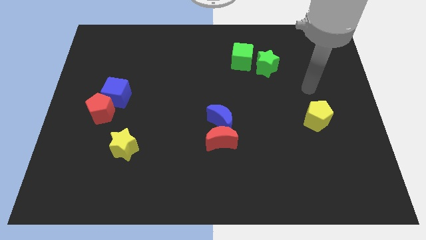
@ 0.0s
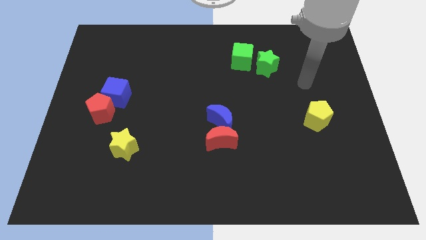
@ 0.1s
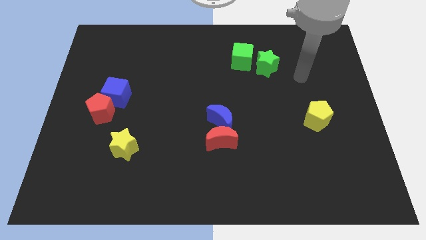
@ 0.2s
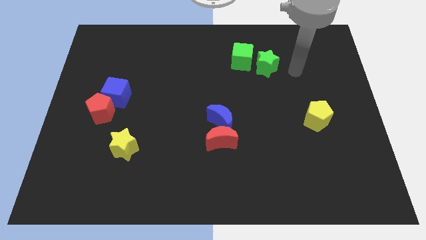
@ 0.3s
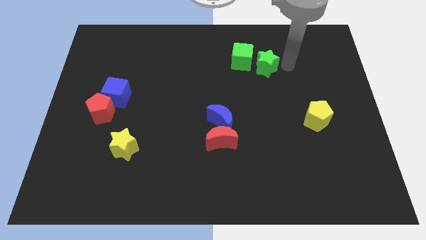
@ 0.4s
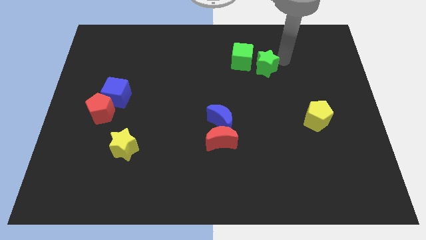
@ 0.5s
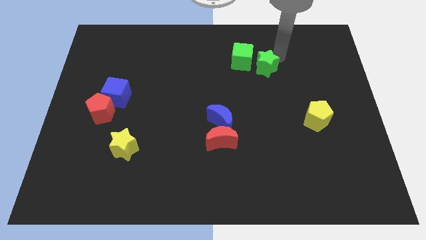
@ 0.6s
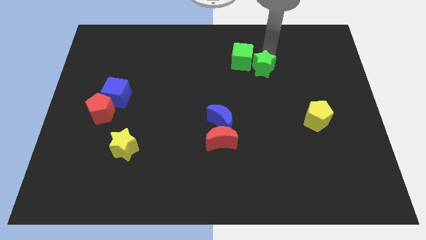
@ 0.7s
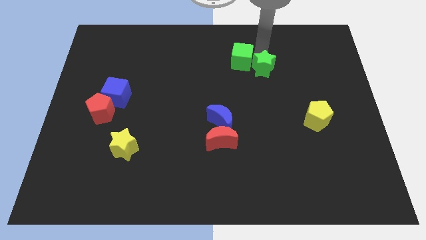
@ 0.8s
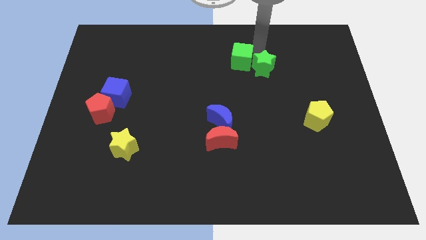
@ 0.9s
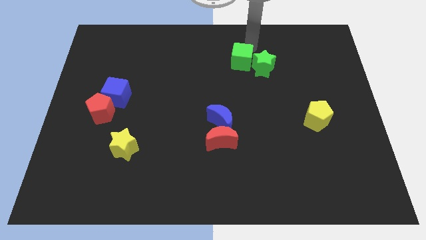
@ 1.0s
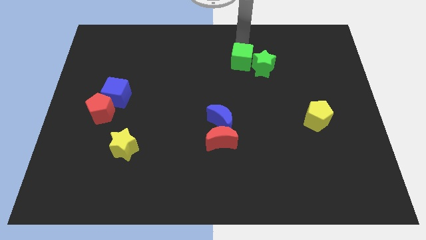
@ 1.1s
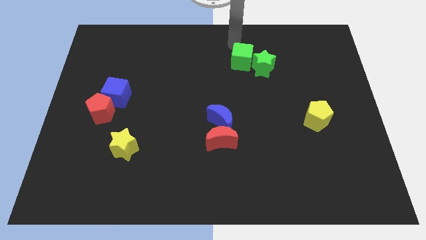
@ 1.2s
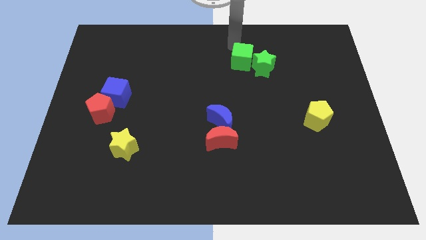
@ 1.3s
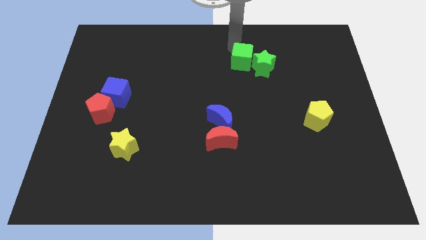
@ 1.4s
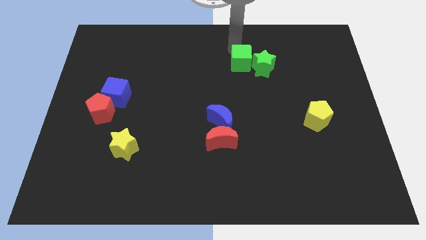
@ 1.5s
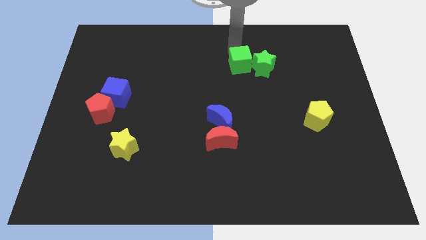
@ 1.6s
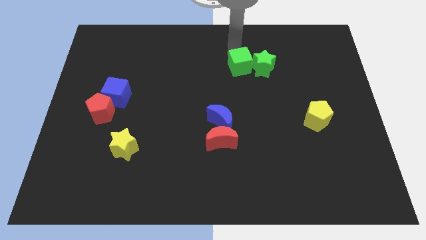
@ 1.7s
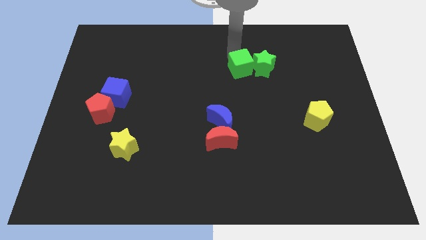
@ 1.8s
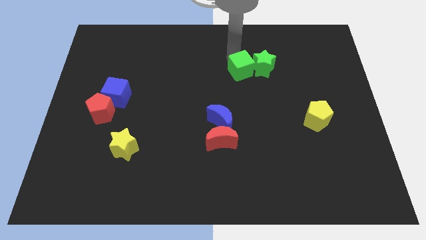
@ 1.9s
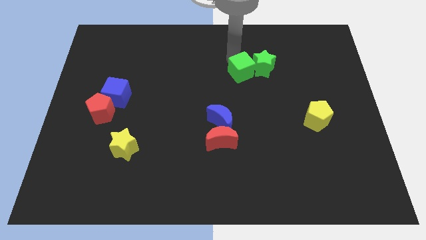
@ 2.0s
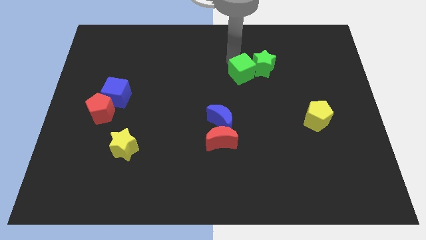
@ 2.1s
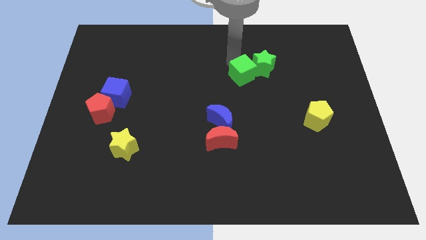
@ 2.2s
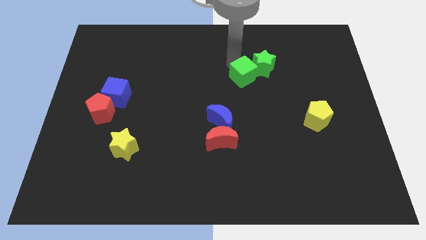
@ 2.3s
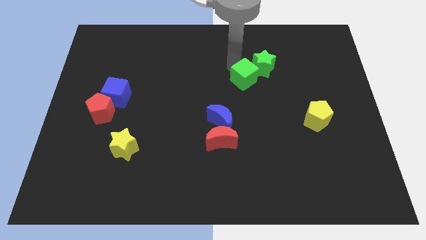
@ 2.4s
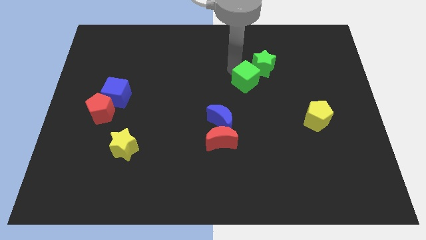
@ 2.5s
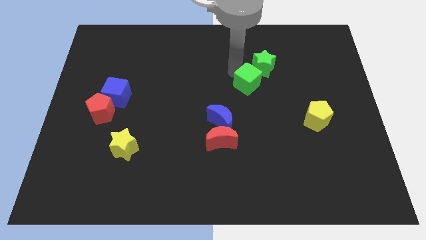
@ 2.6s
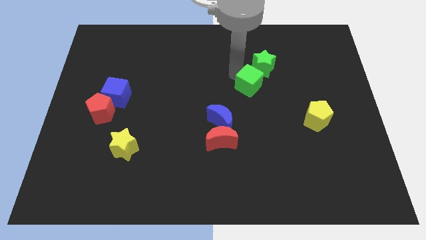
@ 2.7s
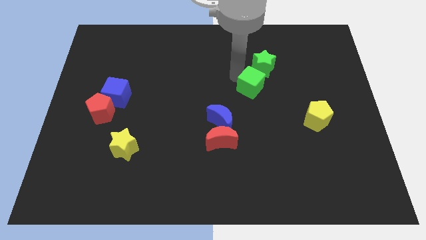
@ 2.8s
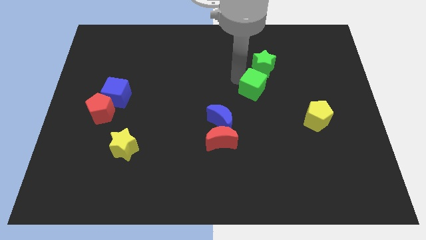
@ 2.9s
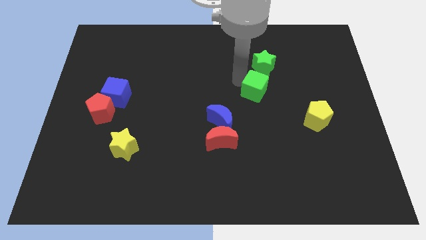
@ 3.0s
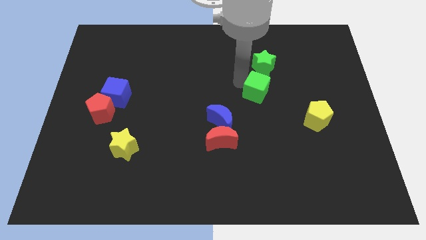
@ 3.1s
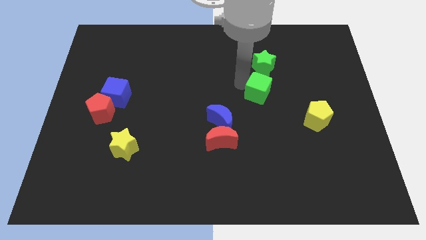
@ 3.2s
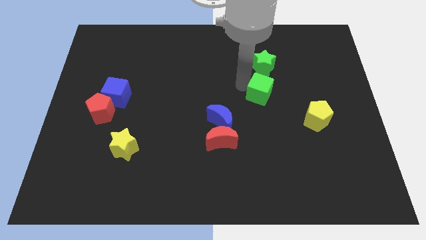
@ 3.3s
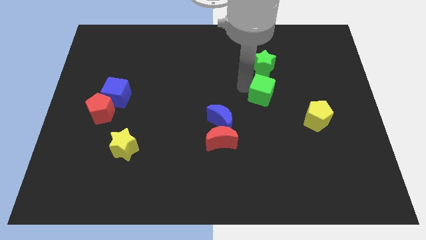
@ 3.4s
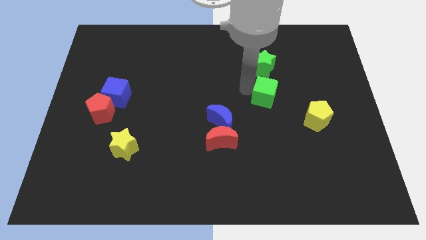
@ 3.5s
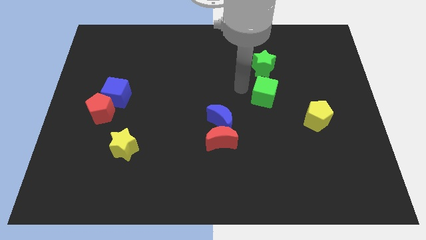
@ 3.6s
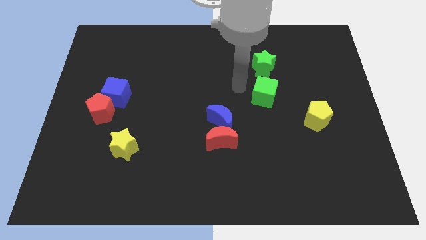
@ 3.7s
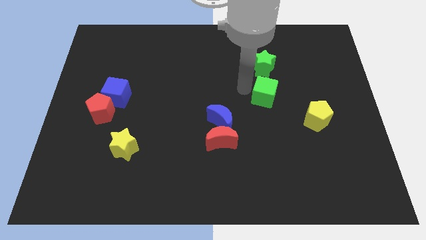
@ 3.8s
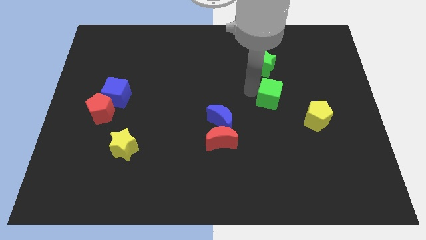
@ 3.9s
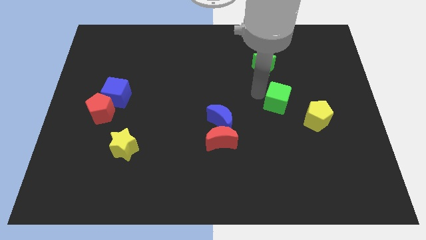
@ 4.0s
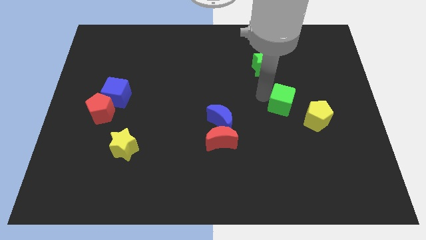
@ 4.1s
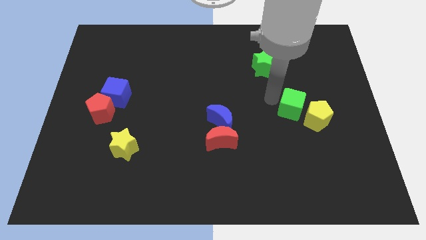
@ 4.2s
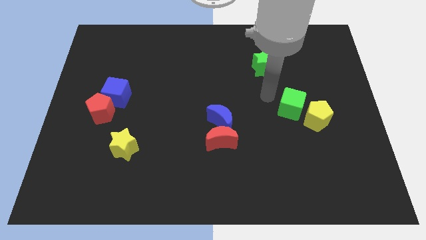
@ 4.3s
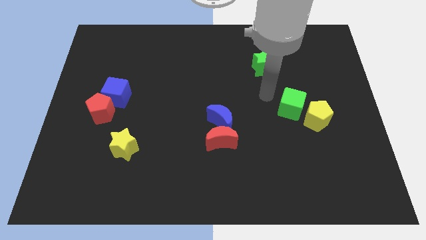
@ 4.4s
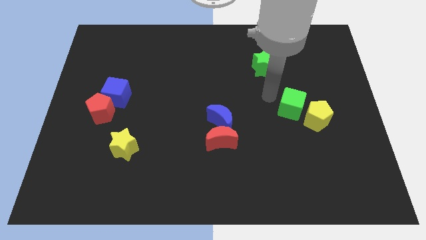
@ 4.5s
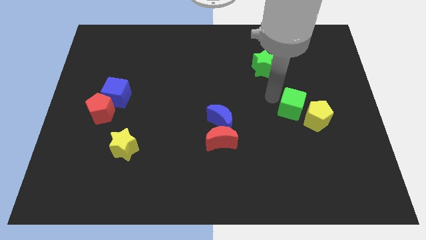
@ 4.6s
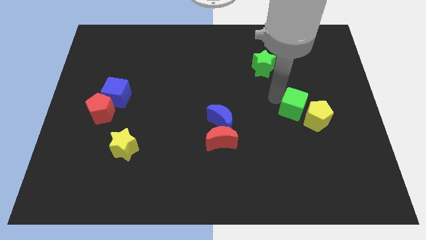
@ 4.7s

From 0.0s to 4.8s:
push the green cube towards the yellow pentagon

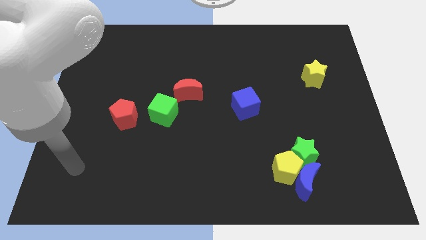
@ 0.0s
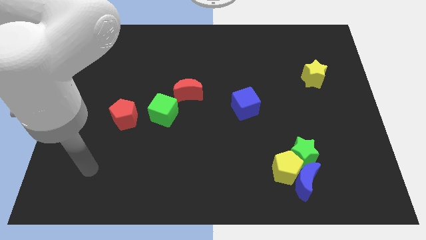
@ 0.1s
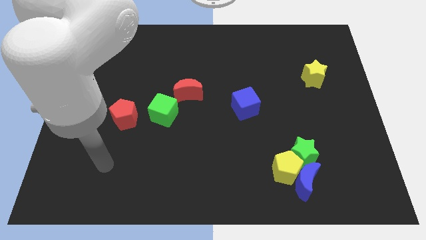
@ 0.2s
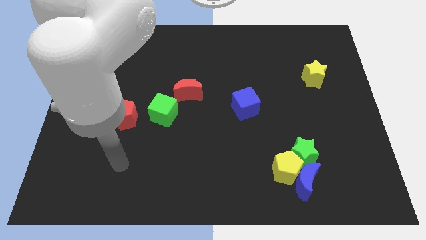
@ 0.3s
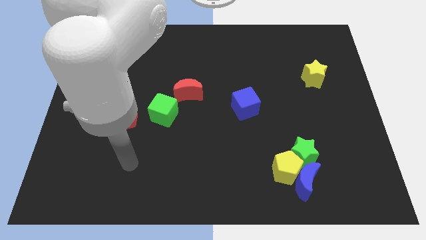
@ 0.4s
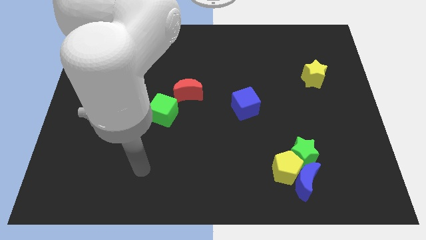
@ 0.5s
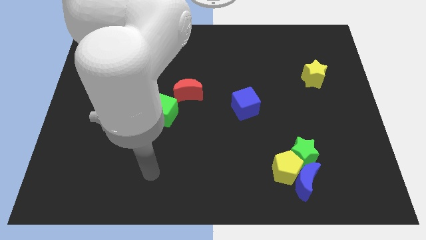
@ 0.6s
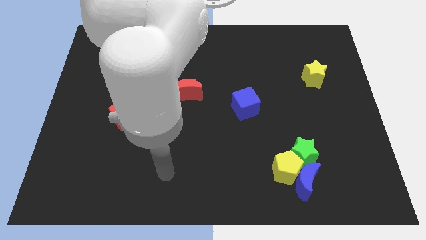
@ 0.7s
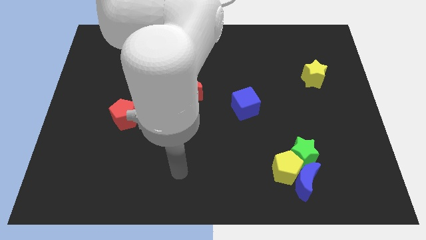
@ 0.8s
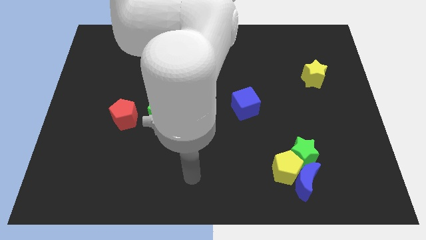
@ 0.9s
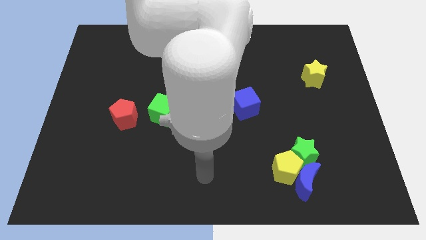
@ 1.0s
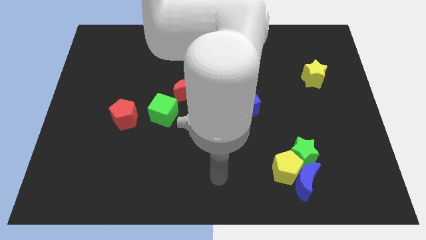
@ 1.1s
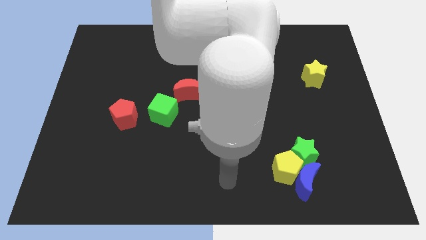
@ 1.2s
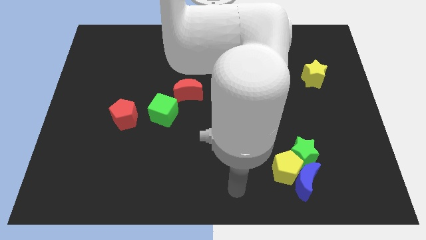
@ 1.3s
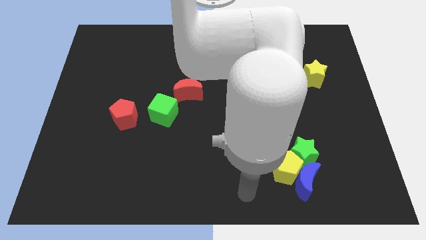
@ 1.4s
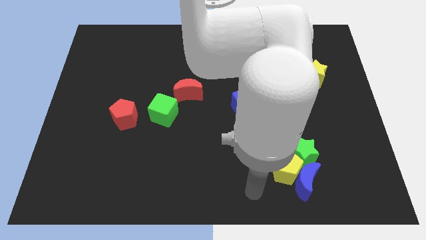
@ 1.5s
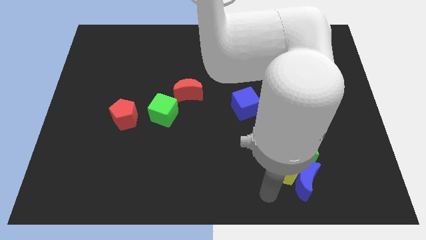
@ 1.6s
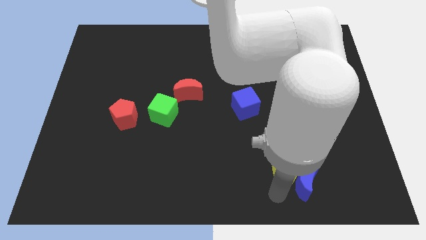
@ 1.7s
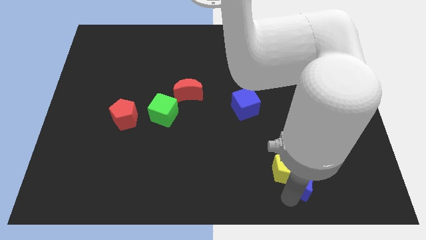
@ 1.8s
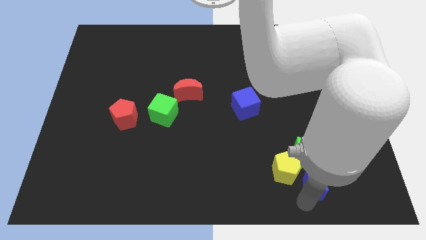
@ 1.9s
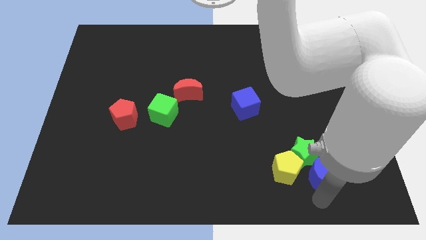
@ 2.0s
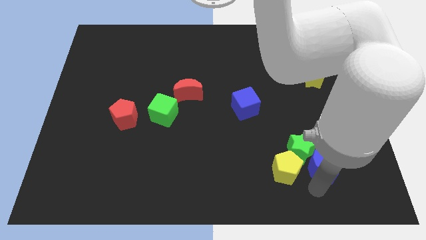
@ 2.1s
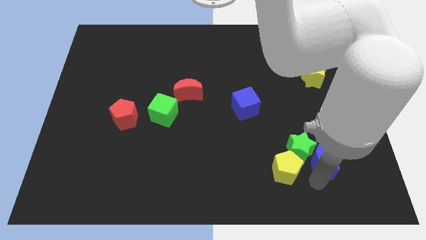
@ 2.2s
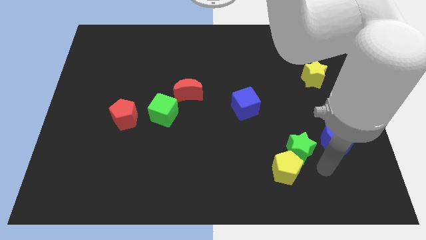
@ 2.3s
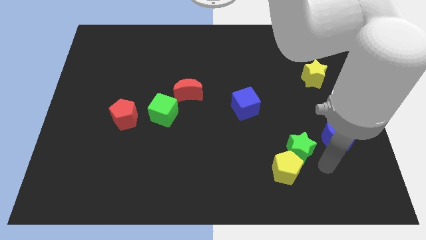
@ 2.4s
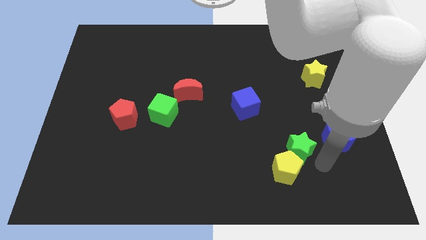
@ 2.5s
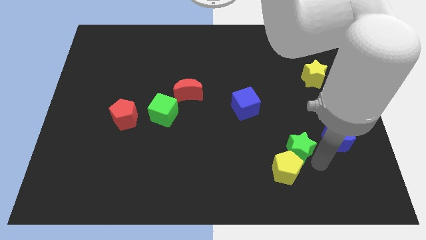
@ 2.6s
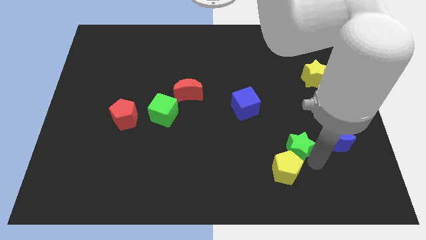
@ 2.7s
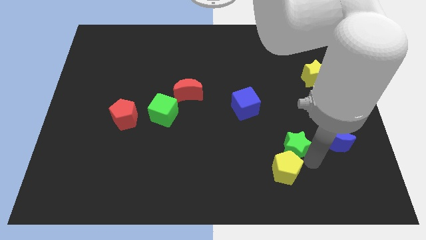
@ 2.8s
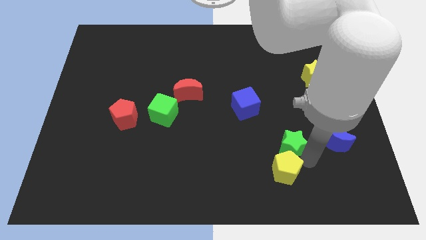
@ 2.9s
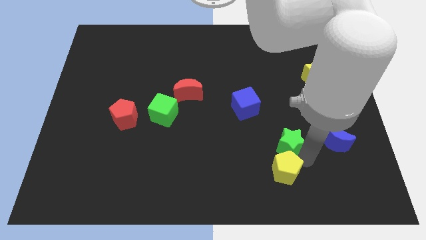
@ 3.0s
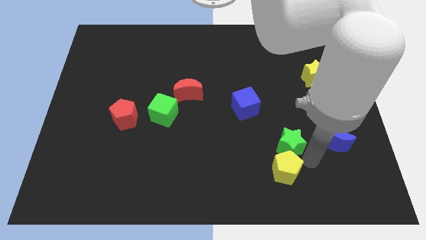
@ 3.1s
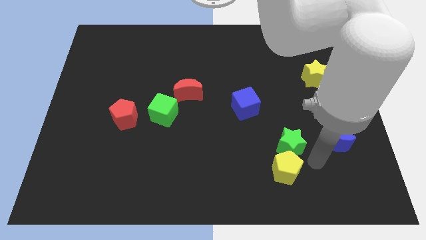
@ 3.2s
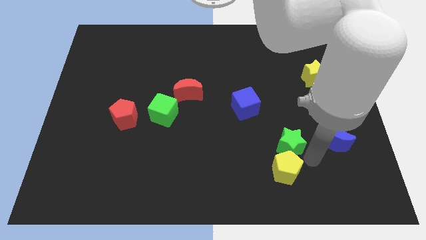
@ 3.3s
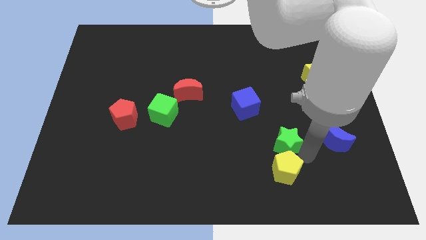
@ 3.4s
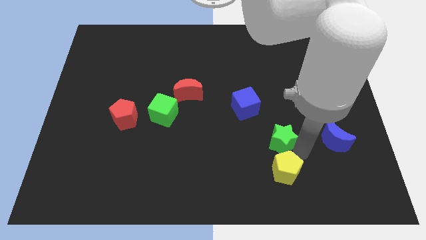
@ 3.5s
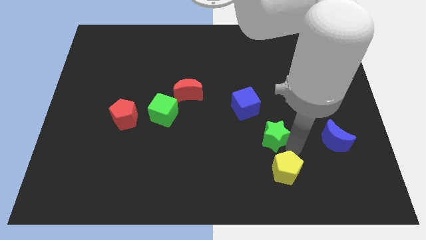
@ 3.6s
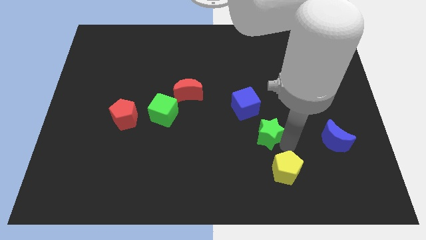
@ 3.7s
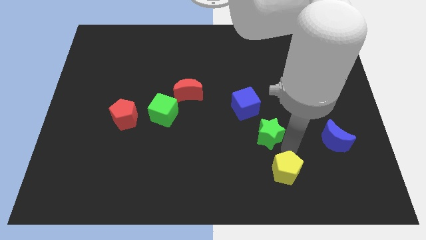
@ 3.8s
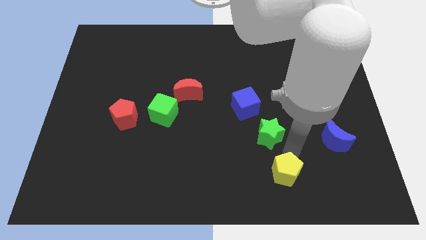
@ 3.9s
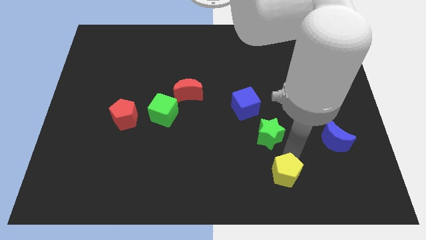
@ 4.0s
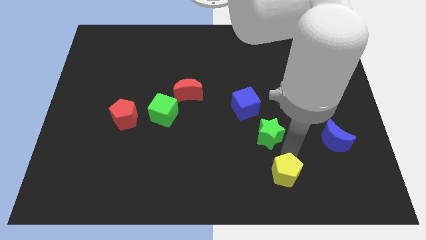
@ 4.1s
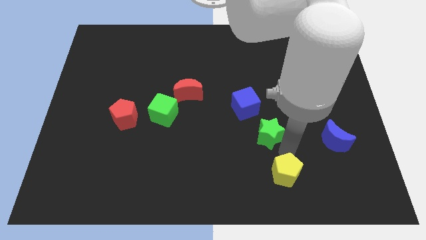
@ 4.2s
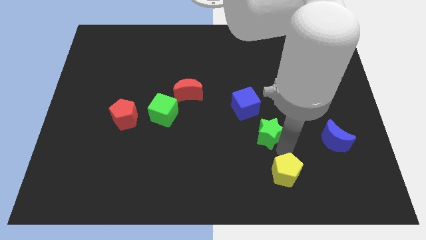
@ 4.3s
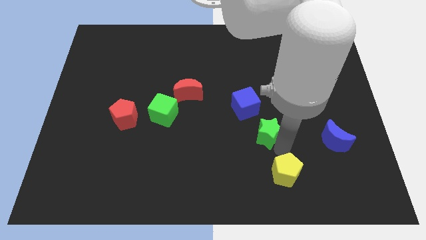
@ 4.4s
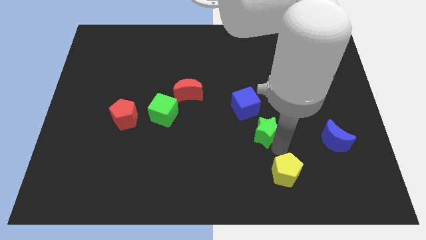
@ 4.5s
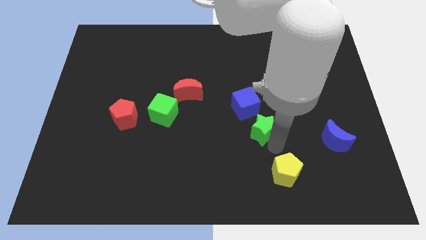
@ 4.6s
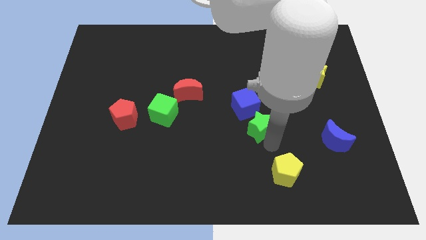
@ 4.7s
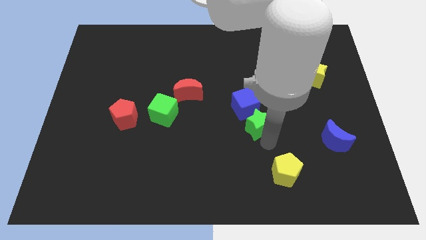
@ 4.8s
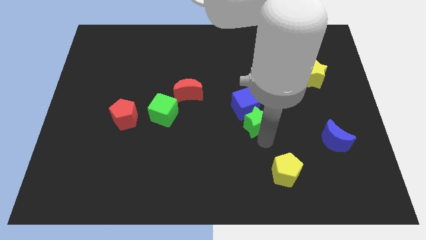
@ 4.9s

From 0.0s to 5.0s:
put the green star next to the blue cube
